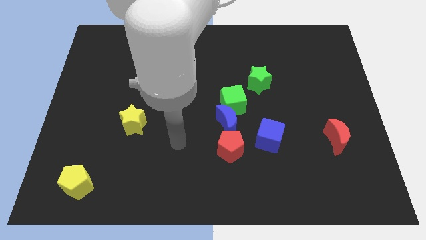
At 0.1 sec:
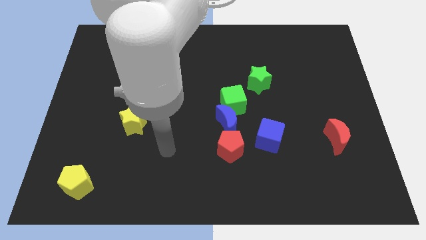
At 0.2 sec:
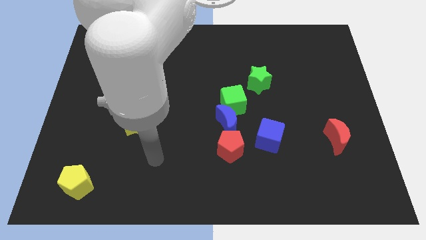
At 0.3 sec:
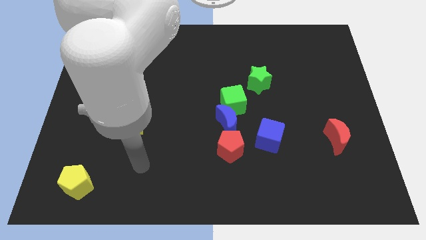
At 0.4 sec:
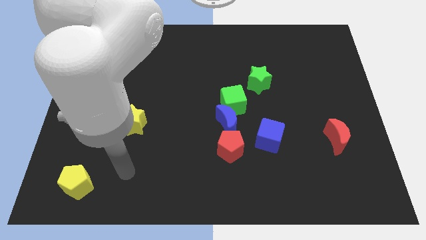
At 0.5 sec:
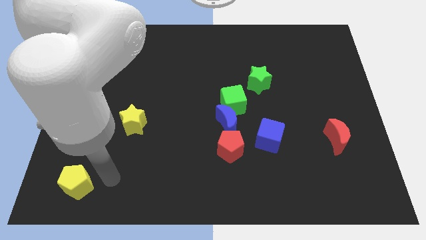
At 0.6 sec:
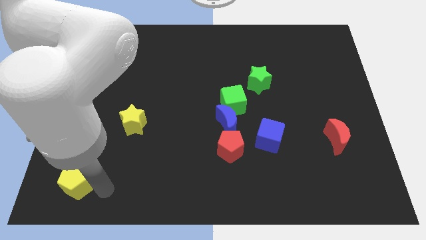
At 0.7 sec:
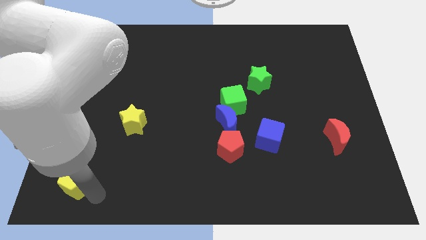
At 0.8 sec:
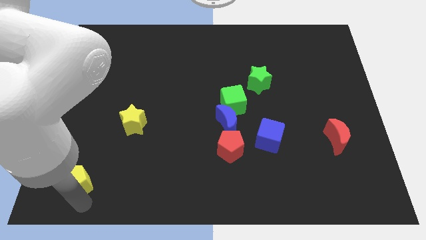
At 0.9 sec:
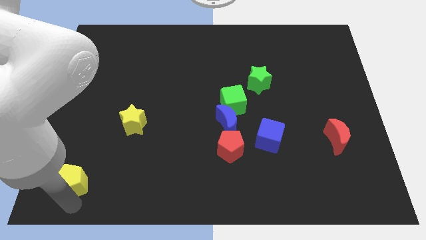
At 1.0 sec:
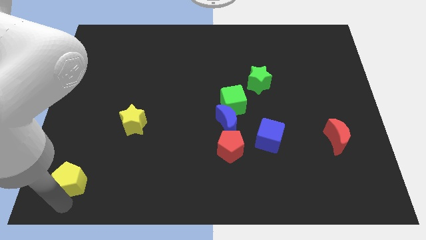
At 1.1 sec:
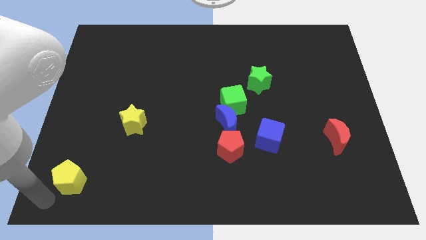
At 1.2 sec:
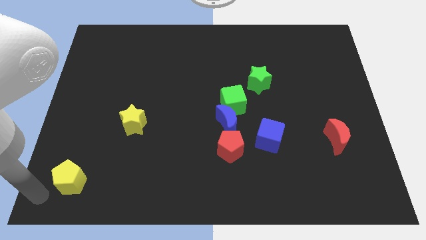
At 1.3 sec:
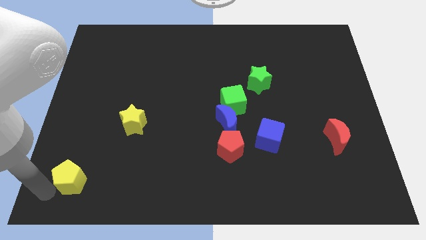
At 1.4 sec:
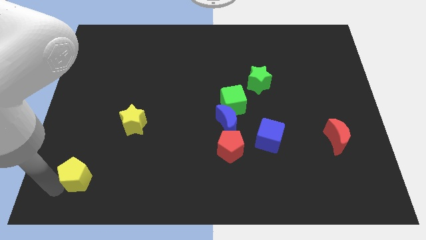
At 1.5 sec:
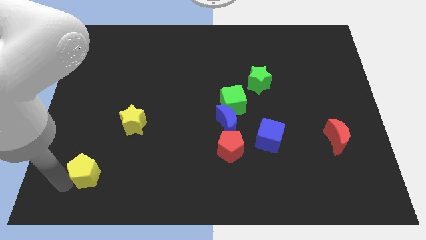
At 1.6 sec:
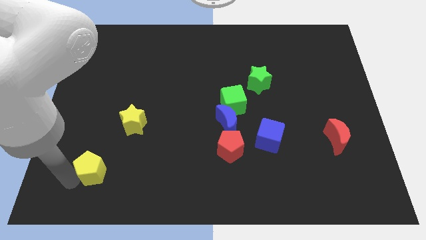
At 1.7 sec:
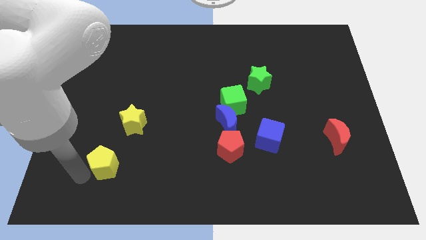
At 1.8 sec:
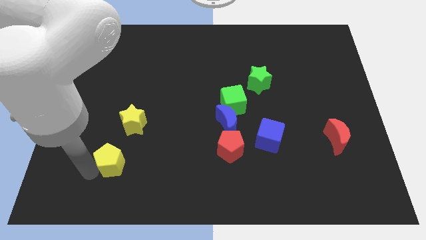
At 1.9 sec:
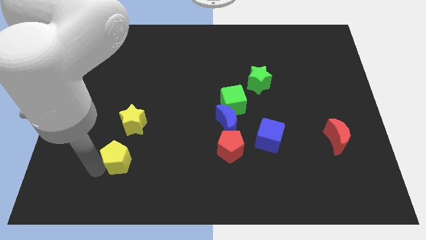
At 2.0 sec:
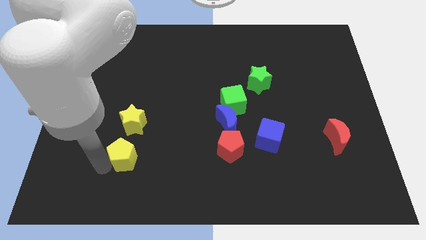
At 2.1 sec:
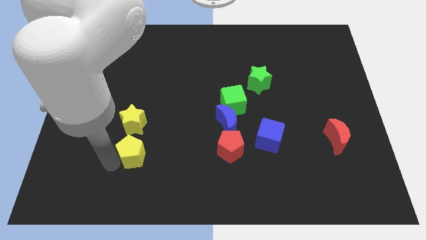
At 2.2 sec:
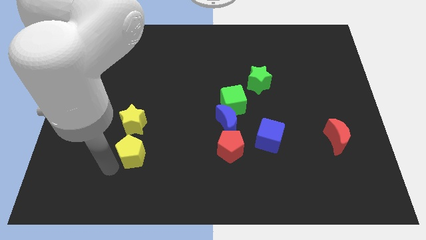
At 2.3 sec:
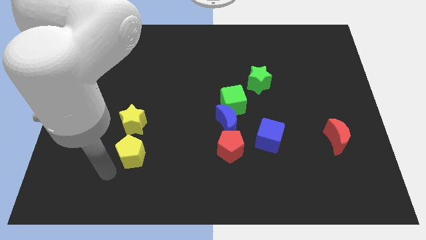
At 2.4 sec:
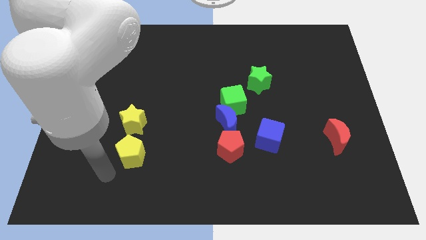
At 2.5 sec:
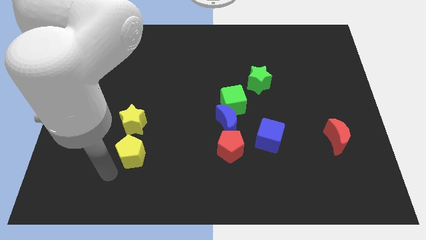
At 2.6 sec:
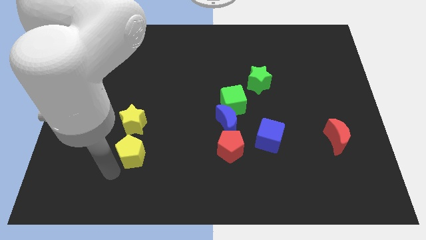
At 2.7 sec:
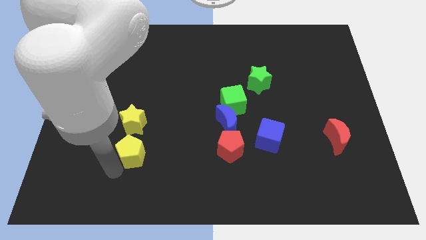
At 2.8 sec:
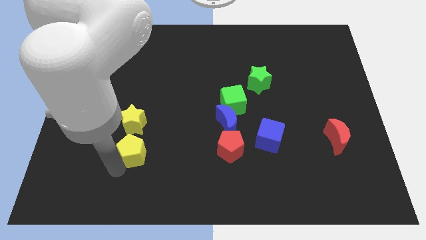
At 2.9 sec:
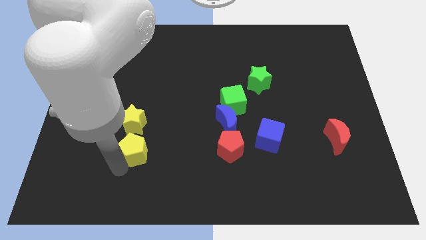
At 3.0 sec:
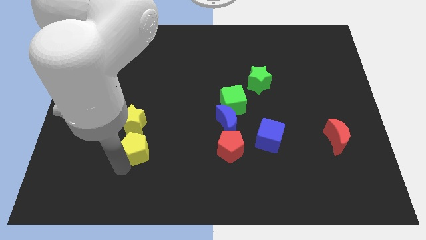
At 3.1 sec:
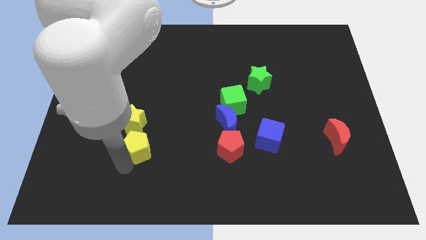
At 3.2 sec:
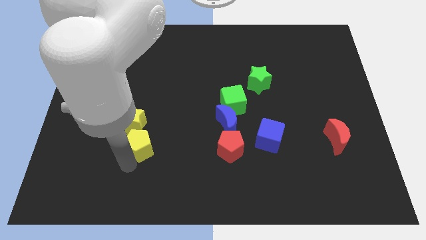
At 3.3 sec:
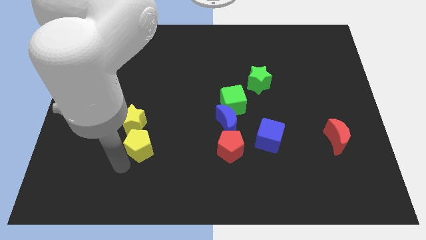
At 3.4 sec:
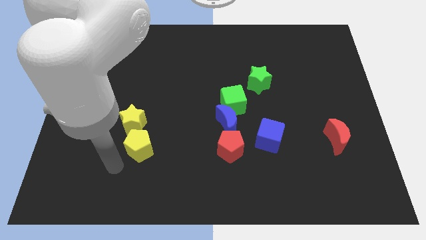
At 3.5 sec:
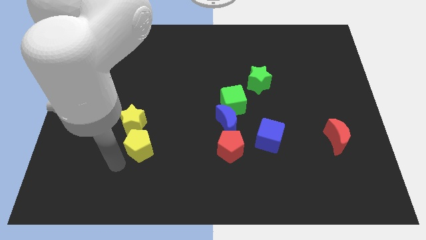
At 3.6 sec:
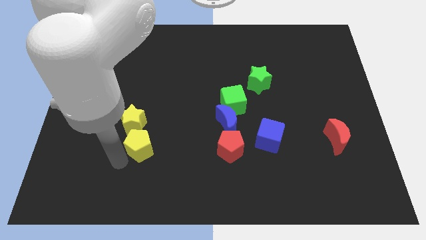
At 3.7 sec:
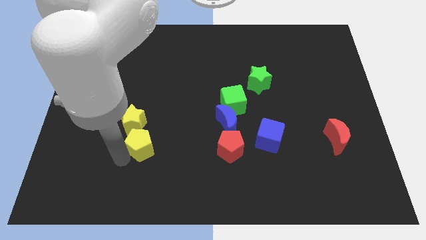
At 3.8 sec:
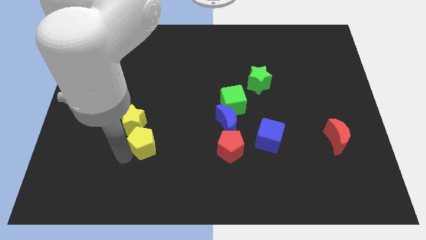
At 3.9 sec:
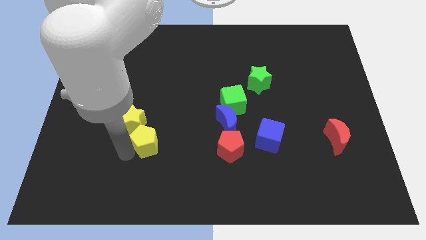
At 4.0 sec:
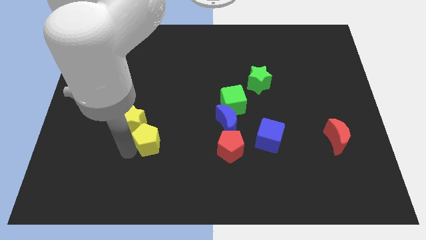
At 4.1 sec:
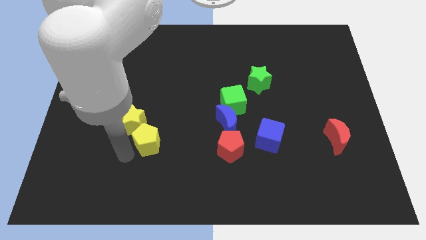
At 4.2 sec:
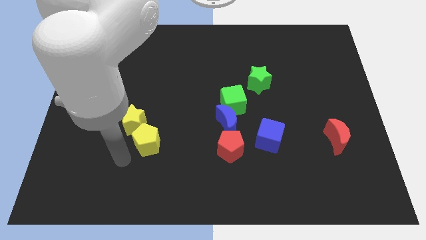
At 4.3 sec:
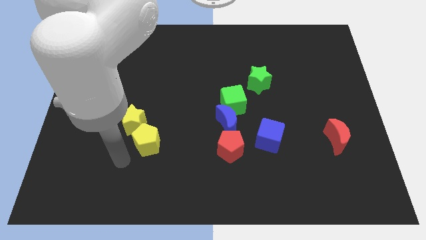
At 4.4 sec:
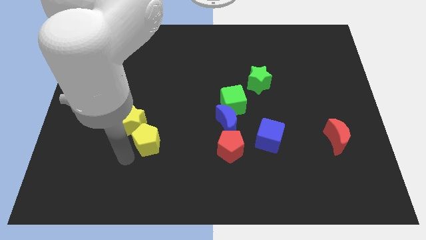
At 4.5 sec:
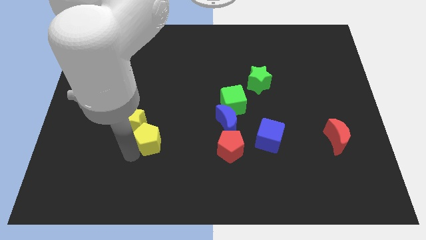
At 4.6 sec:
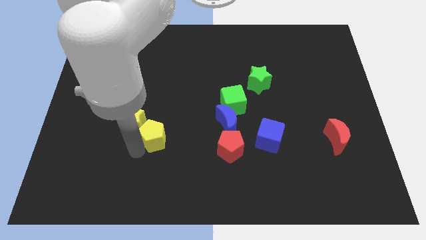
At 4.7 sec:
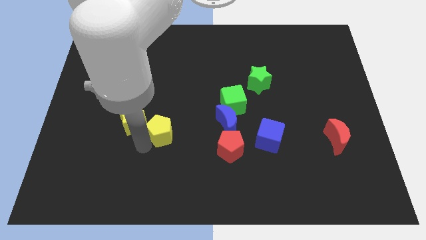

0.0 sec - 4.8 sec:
move the yellow pentagon just left of the blue moon

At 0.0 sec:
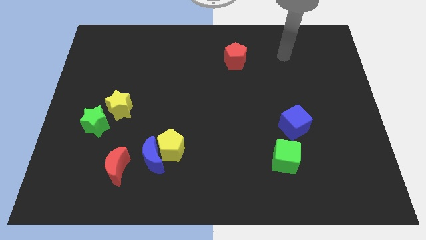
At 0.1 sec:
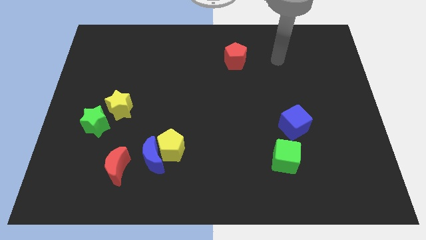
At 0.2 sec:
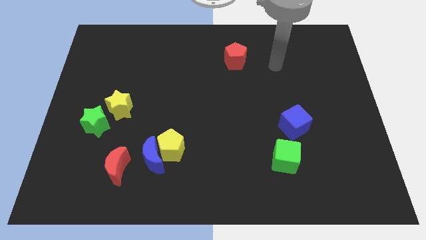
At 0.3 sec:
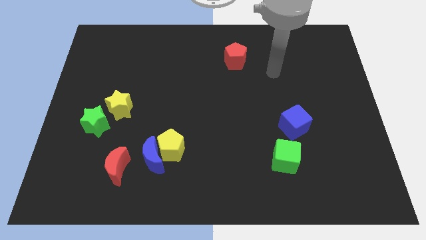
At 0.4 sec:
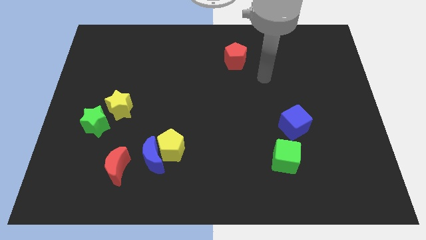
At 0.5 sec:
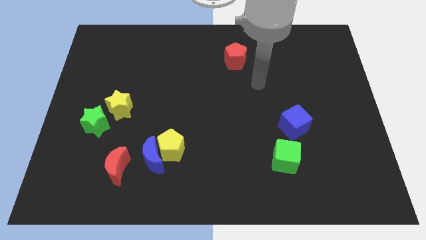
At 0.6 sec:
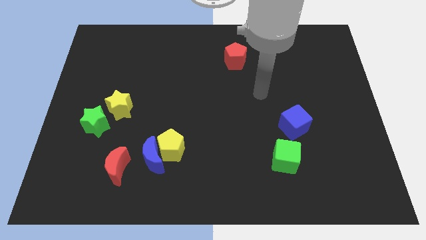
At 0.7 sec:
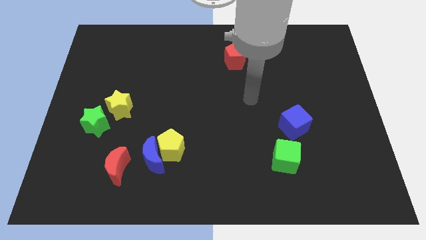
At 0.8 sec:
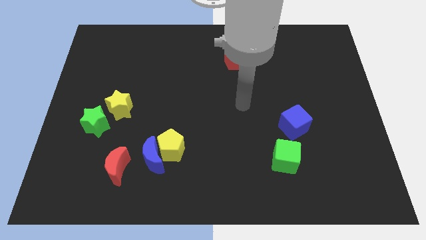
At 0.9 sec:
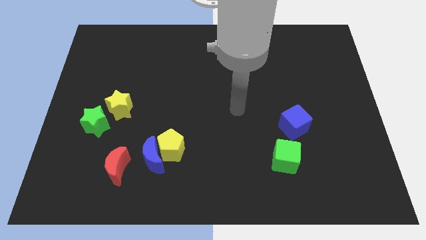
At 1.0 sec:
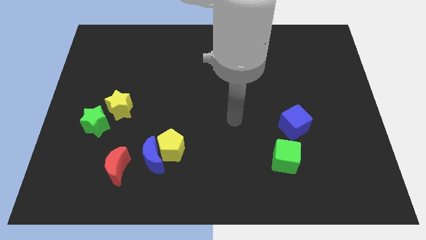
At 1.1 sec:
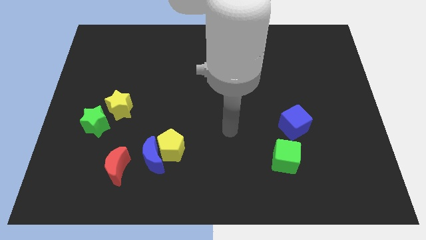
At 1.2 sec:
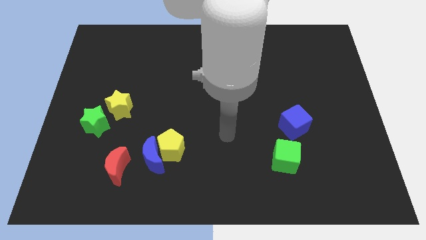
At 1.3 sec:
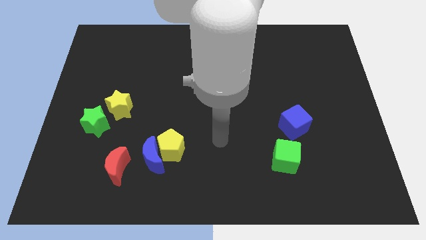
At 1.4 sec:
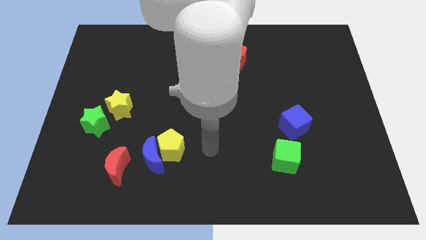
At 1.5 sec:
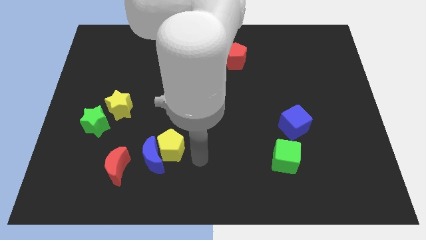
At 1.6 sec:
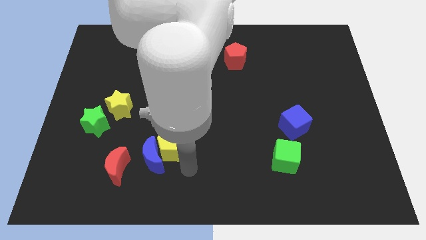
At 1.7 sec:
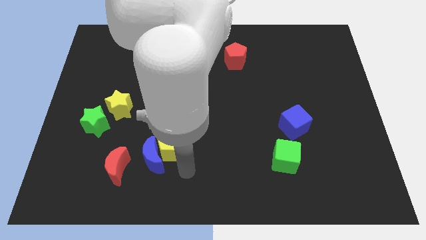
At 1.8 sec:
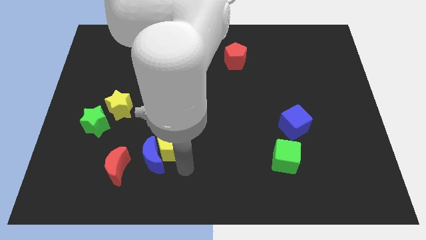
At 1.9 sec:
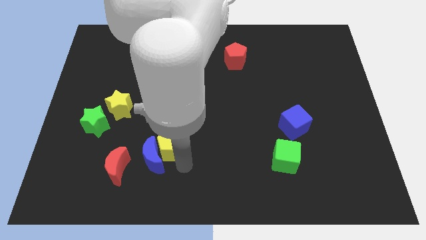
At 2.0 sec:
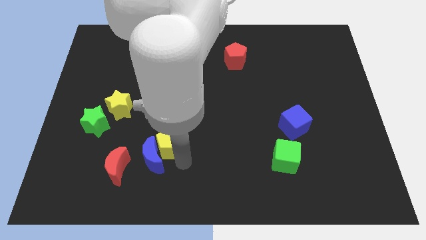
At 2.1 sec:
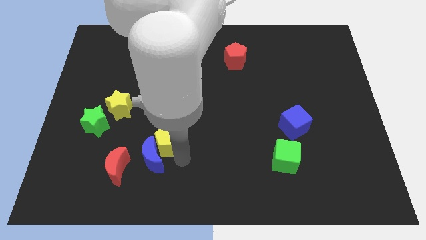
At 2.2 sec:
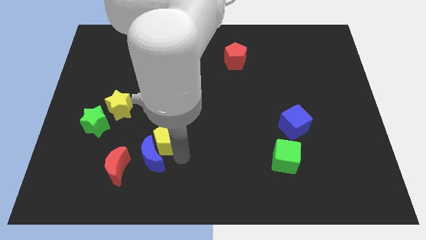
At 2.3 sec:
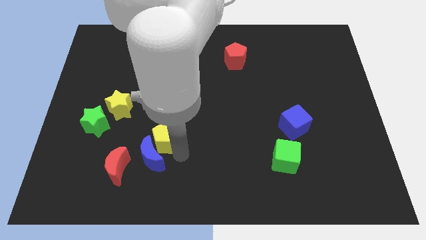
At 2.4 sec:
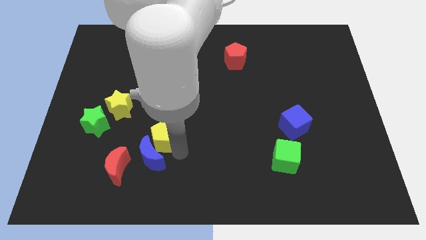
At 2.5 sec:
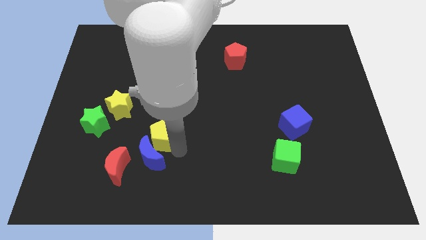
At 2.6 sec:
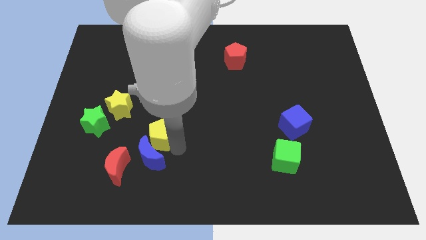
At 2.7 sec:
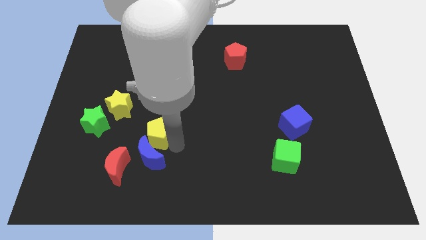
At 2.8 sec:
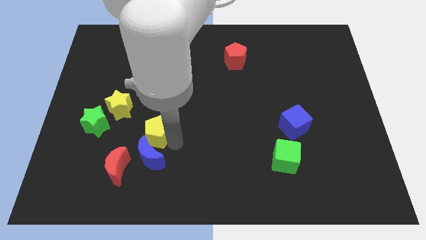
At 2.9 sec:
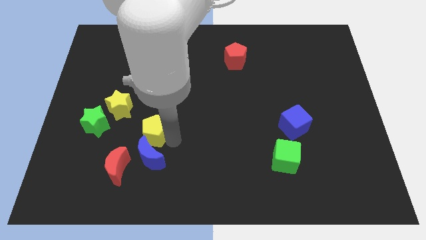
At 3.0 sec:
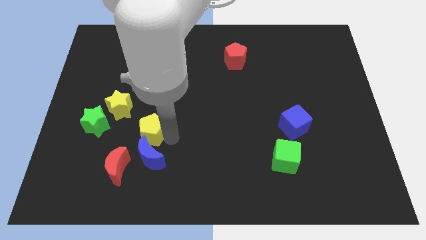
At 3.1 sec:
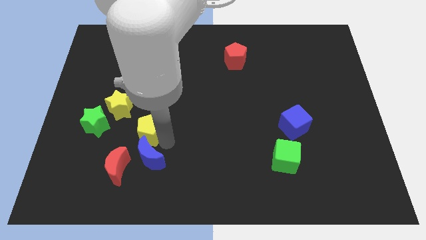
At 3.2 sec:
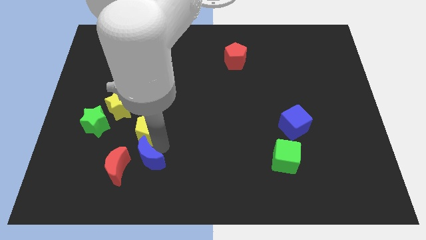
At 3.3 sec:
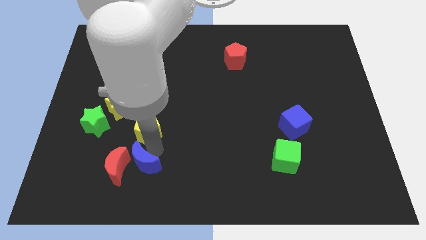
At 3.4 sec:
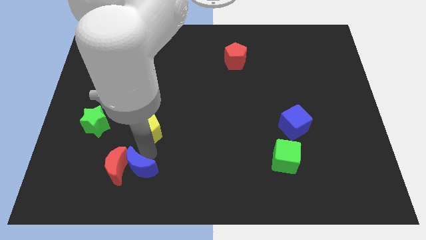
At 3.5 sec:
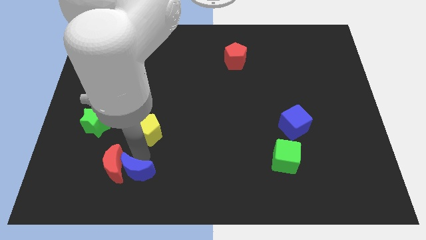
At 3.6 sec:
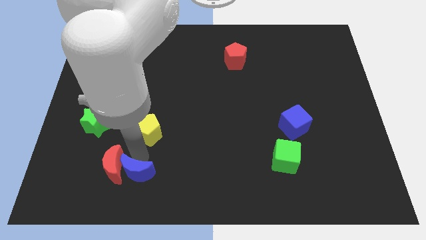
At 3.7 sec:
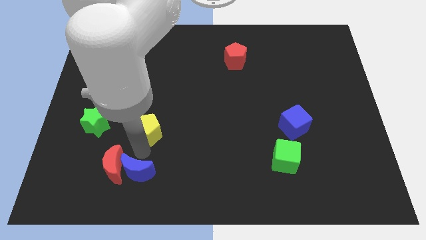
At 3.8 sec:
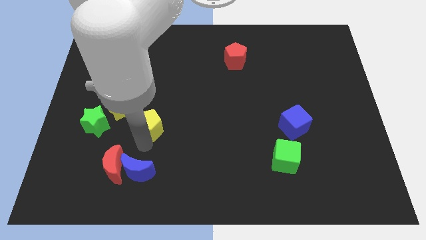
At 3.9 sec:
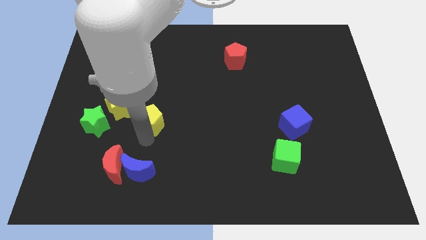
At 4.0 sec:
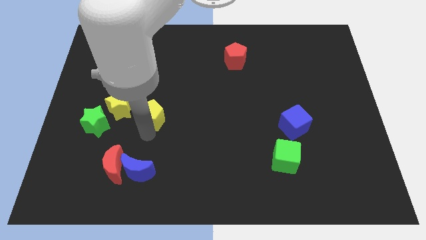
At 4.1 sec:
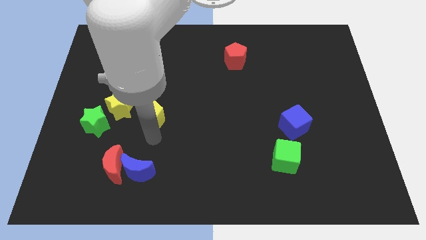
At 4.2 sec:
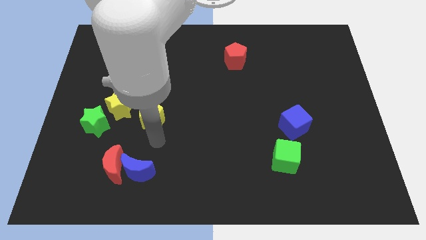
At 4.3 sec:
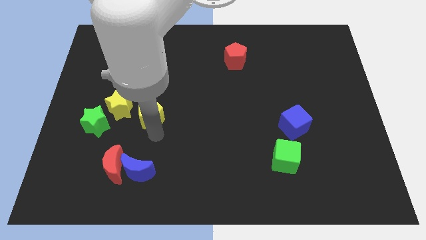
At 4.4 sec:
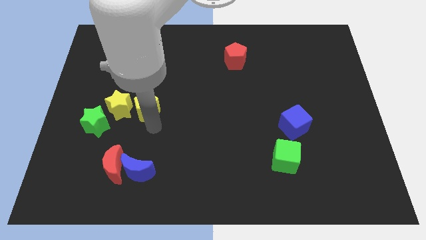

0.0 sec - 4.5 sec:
put the yellow pentagon to the top right of the yellow star
